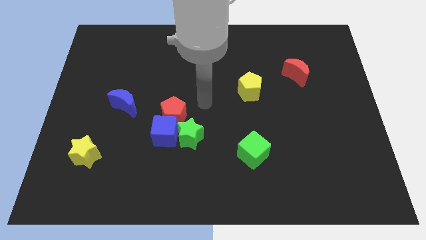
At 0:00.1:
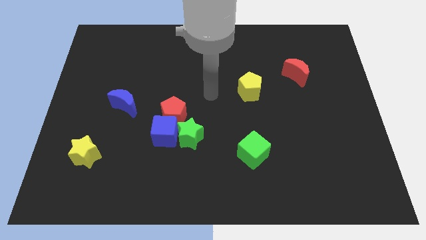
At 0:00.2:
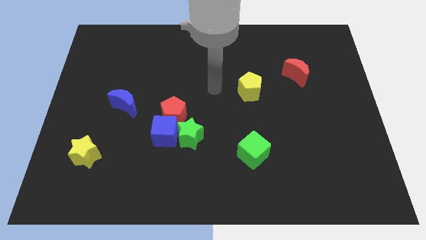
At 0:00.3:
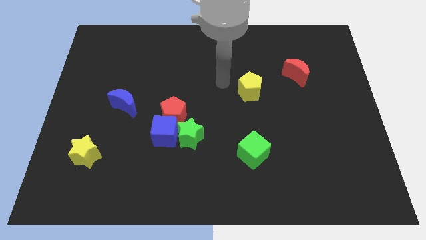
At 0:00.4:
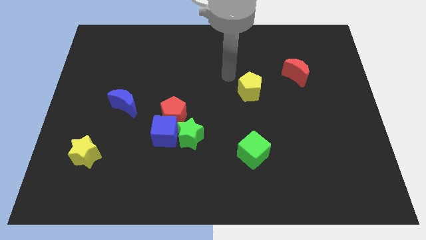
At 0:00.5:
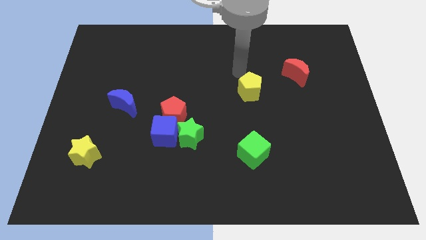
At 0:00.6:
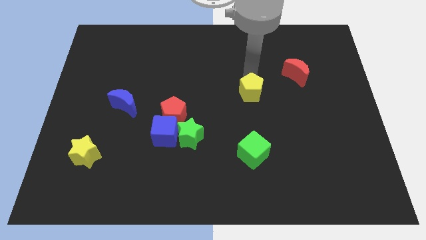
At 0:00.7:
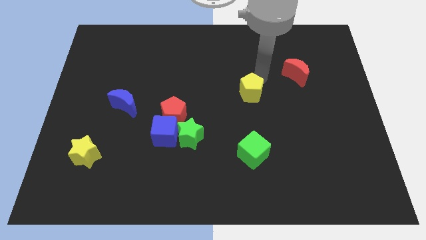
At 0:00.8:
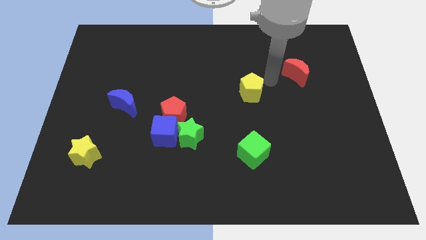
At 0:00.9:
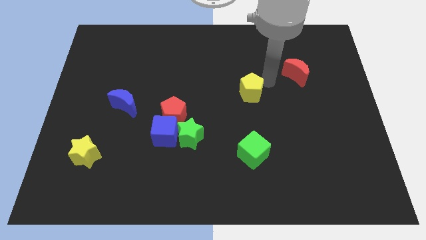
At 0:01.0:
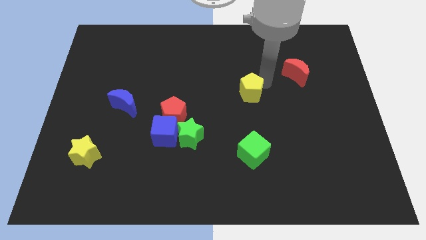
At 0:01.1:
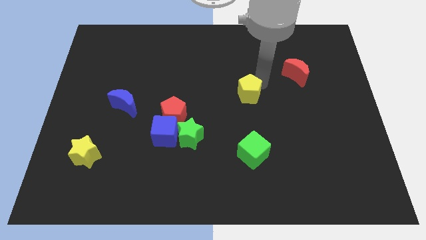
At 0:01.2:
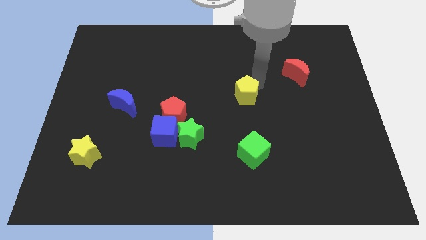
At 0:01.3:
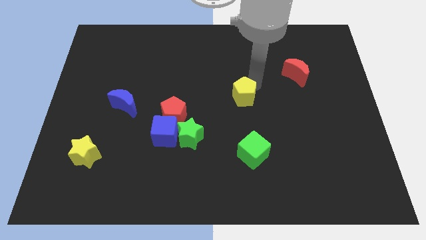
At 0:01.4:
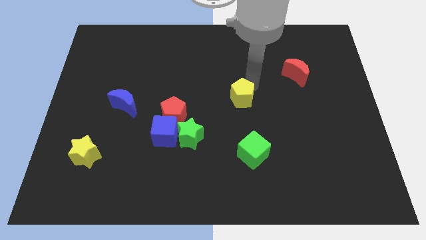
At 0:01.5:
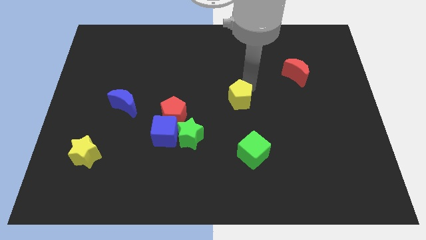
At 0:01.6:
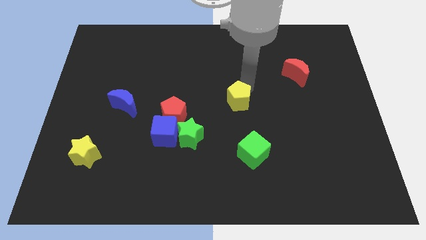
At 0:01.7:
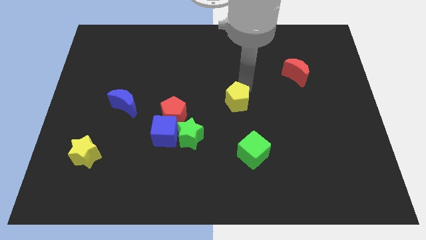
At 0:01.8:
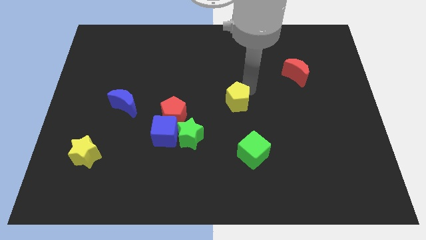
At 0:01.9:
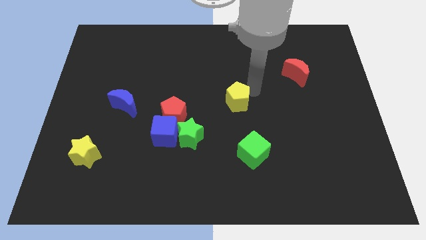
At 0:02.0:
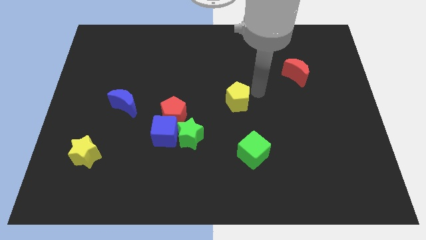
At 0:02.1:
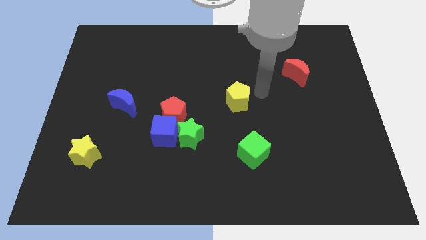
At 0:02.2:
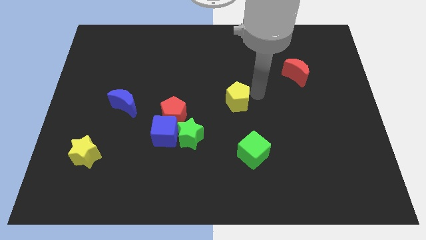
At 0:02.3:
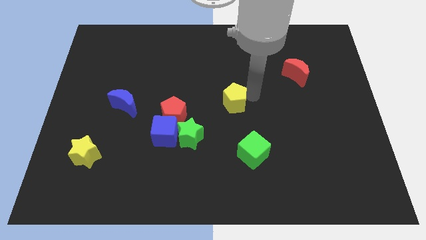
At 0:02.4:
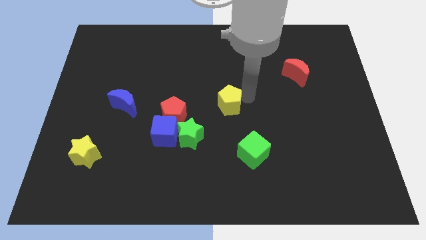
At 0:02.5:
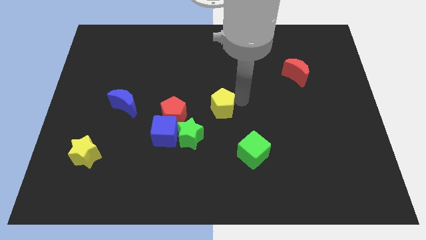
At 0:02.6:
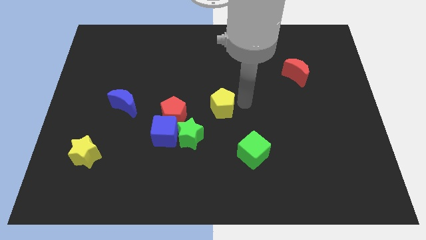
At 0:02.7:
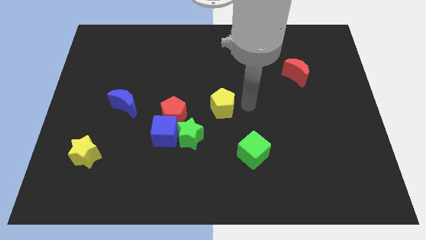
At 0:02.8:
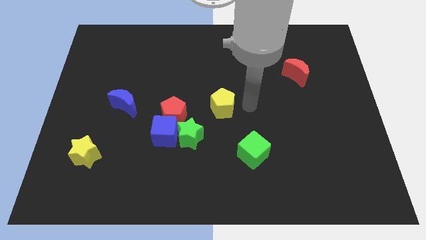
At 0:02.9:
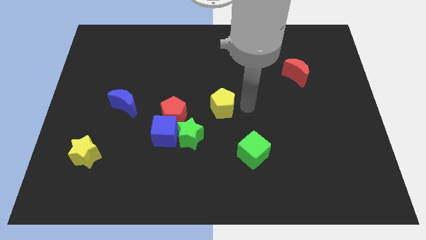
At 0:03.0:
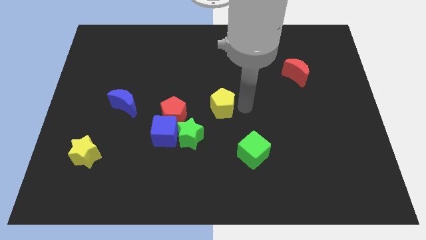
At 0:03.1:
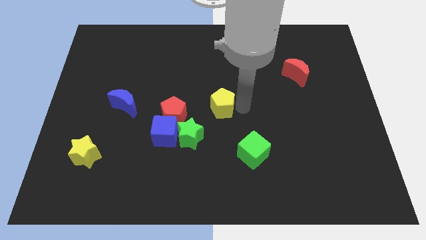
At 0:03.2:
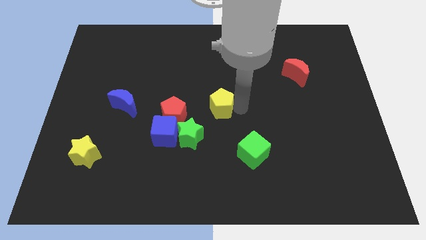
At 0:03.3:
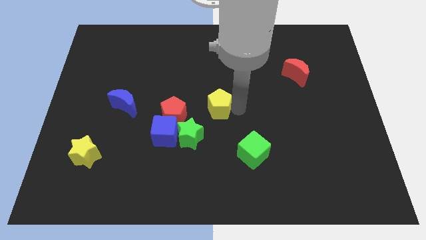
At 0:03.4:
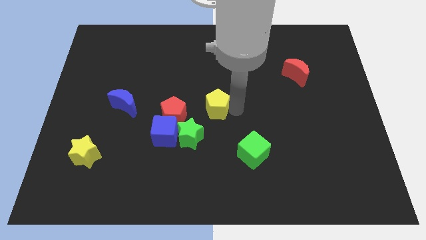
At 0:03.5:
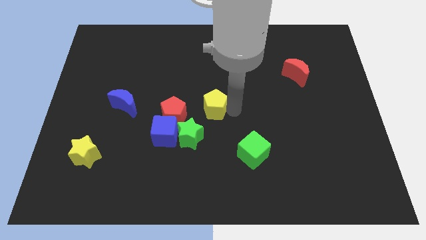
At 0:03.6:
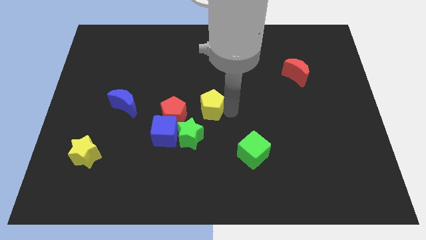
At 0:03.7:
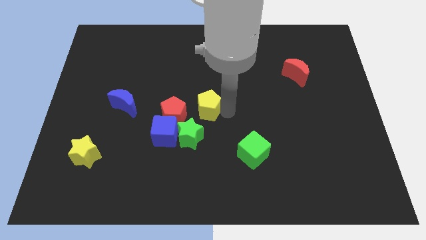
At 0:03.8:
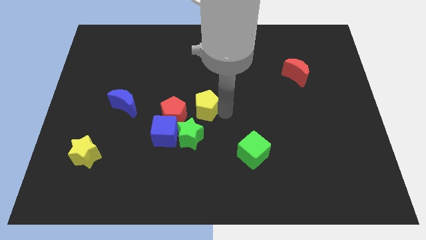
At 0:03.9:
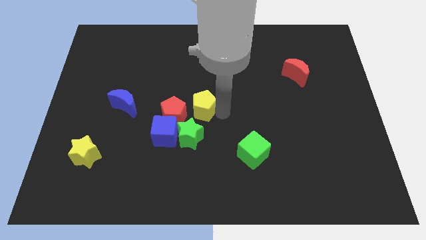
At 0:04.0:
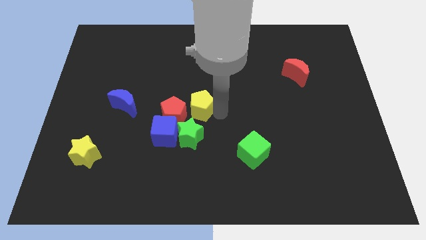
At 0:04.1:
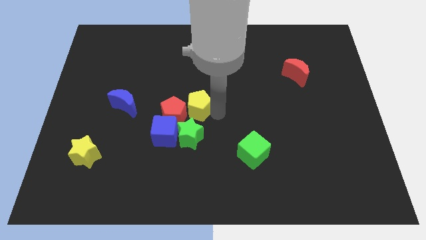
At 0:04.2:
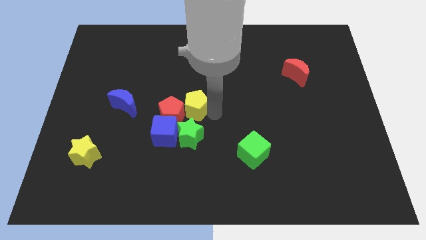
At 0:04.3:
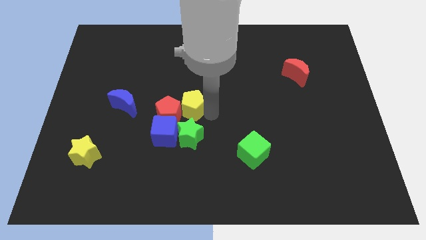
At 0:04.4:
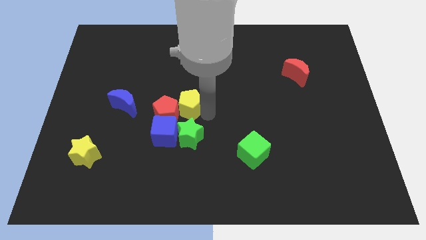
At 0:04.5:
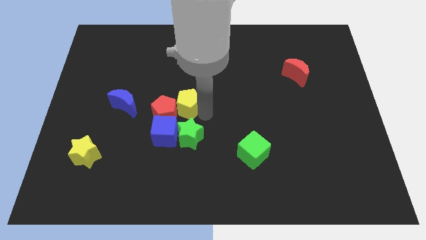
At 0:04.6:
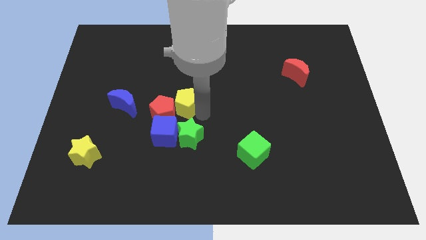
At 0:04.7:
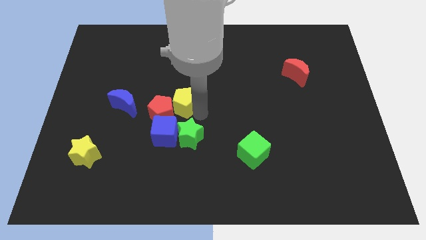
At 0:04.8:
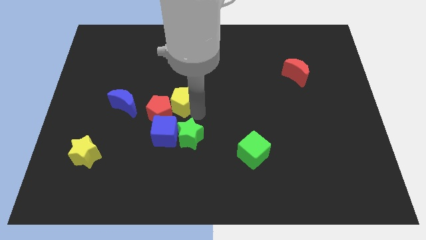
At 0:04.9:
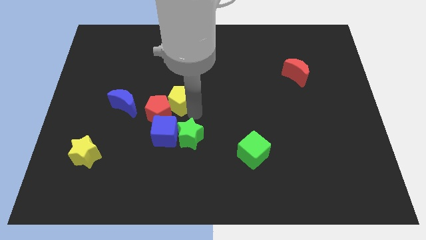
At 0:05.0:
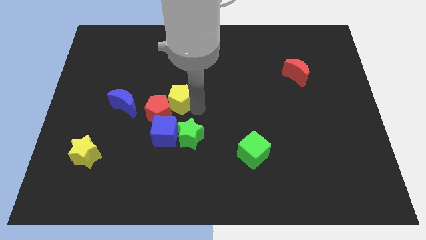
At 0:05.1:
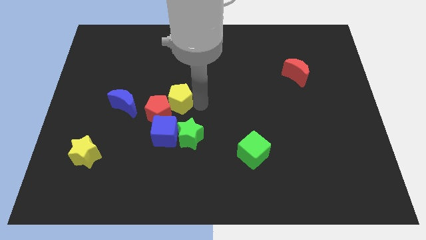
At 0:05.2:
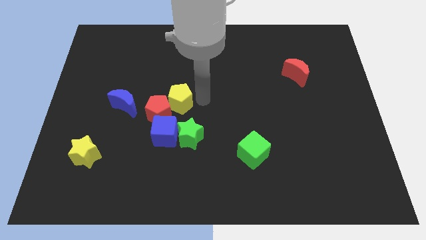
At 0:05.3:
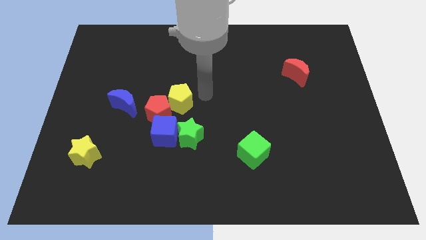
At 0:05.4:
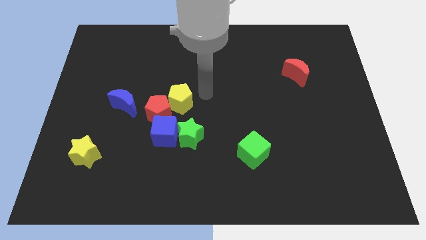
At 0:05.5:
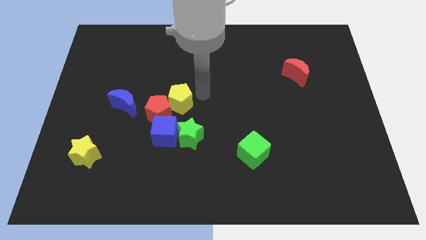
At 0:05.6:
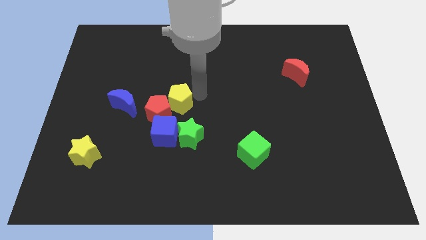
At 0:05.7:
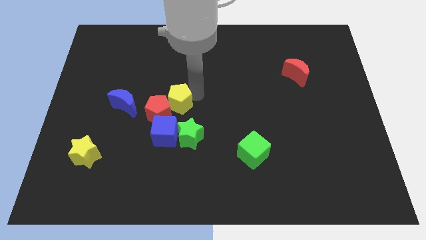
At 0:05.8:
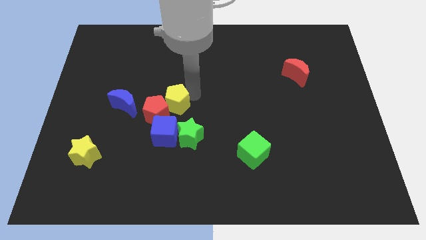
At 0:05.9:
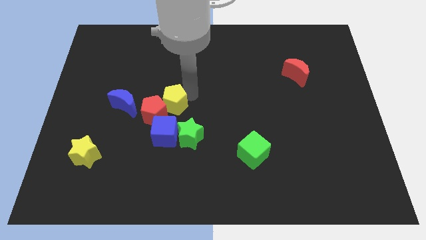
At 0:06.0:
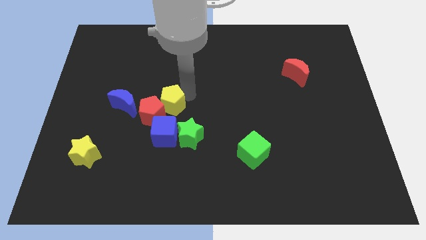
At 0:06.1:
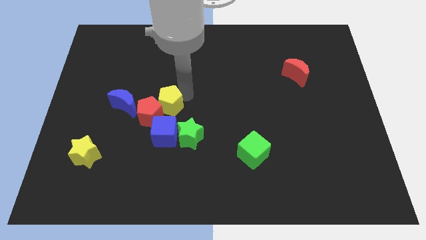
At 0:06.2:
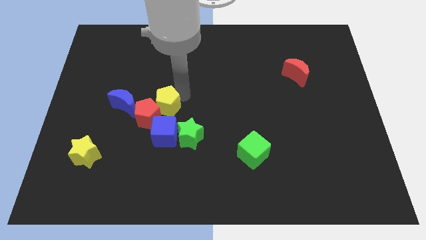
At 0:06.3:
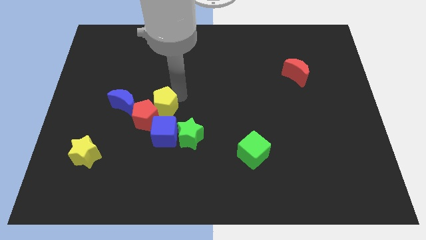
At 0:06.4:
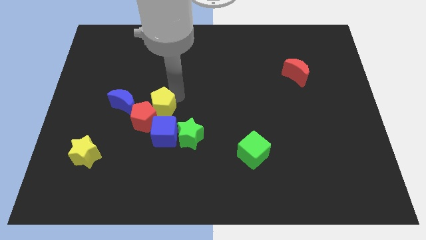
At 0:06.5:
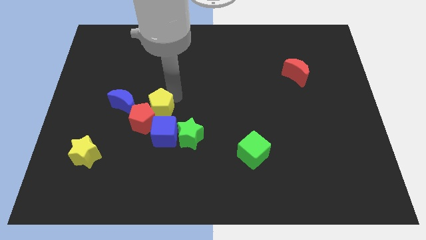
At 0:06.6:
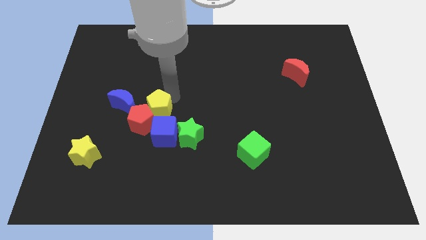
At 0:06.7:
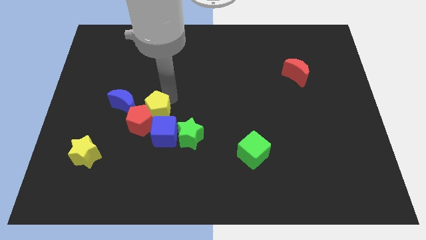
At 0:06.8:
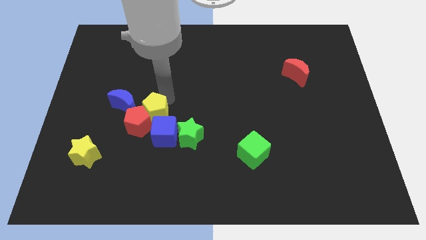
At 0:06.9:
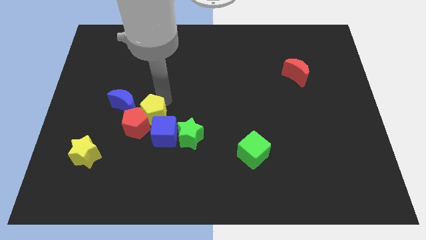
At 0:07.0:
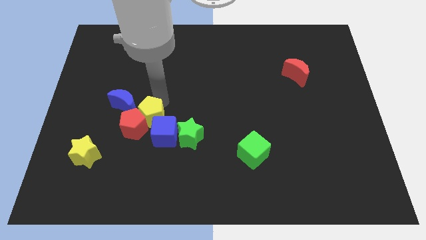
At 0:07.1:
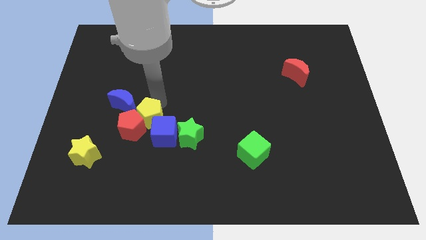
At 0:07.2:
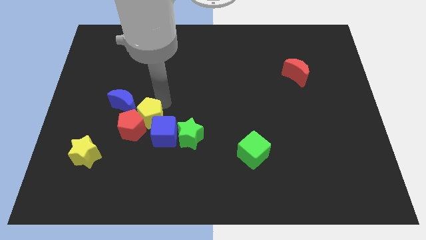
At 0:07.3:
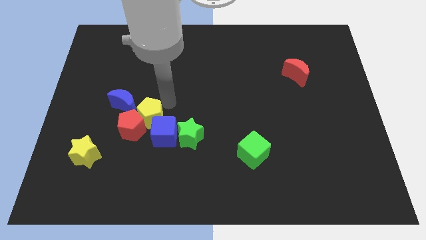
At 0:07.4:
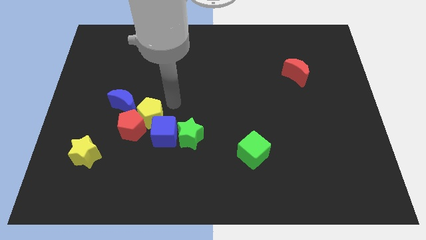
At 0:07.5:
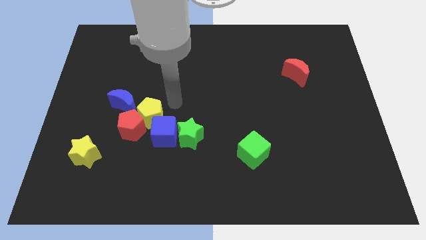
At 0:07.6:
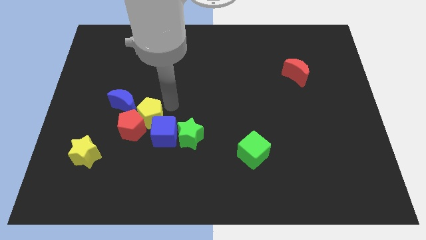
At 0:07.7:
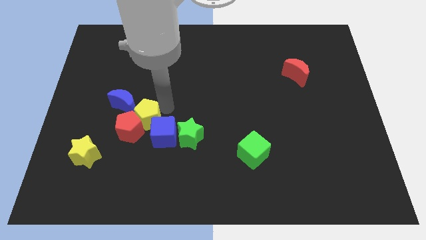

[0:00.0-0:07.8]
push the yellow pentagon just left of the blue cube

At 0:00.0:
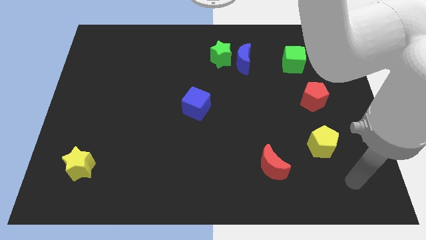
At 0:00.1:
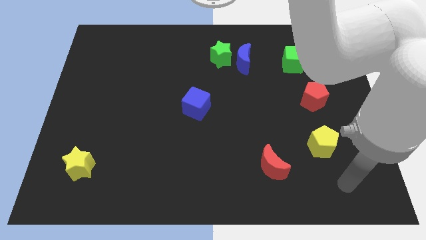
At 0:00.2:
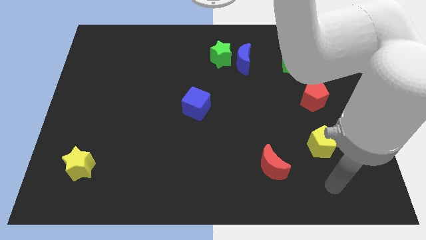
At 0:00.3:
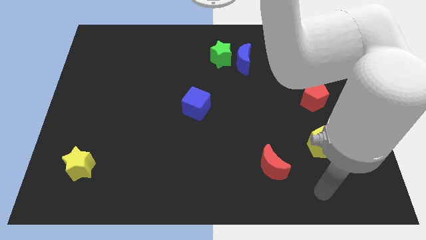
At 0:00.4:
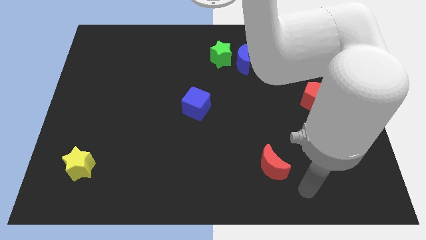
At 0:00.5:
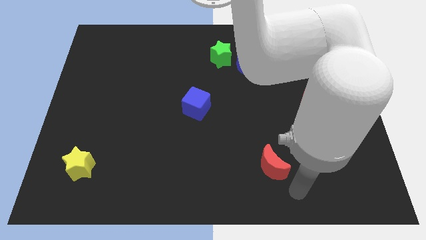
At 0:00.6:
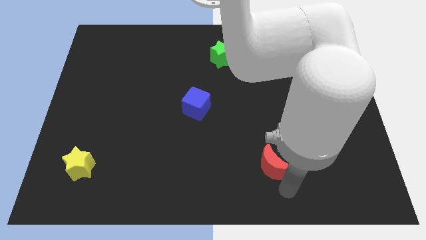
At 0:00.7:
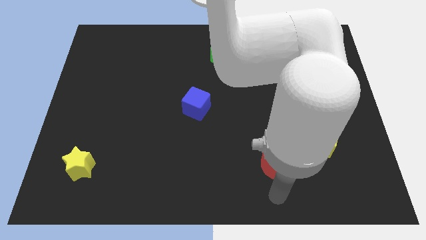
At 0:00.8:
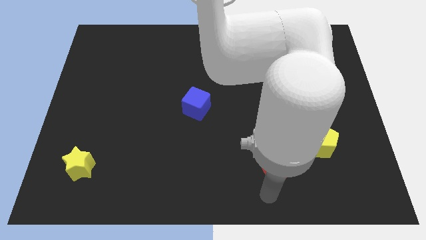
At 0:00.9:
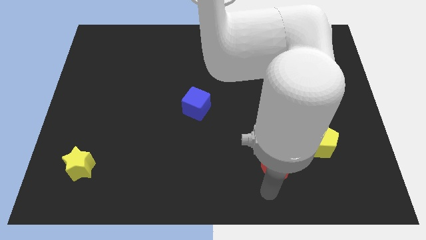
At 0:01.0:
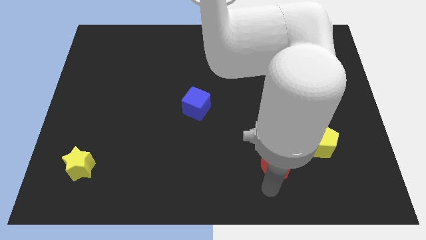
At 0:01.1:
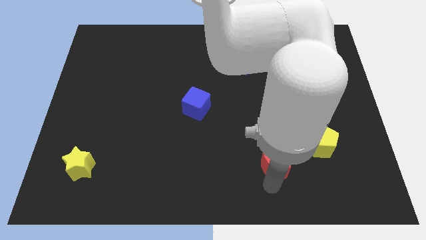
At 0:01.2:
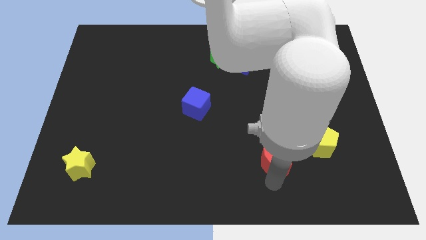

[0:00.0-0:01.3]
slide the red moon to the left of the yellow pentagon
